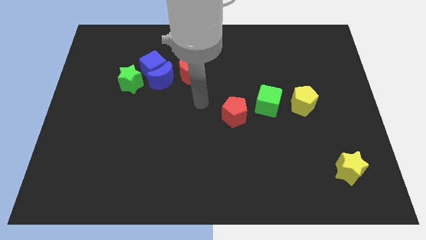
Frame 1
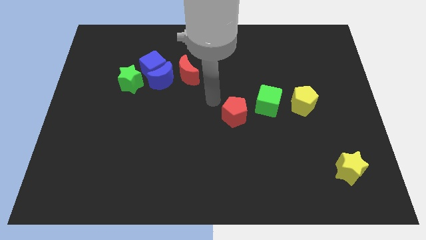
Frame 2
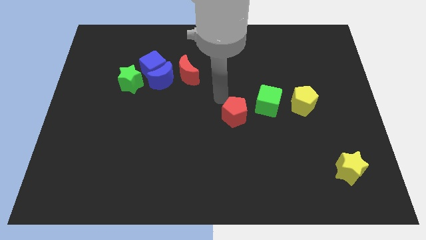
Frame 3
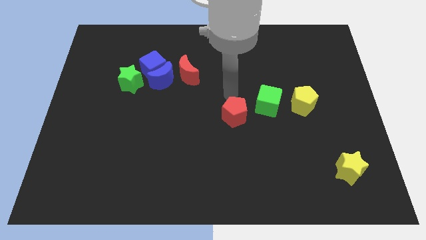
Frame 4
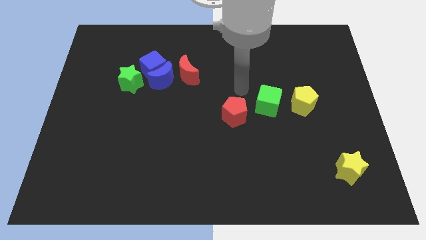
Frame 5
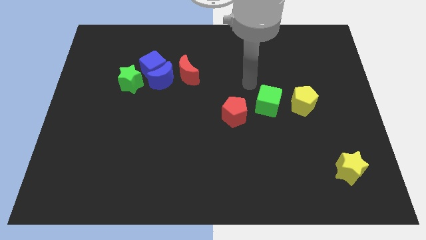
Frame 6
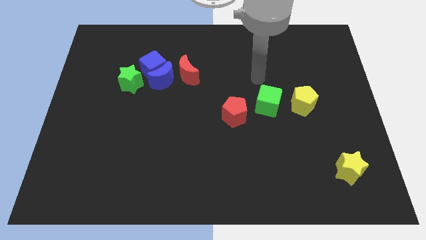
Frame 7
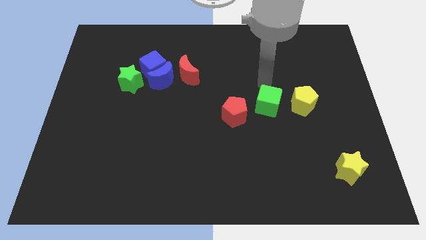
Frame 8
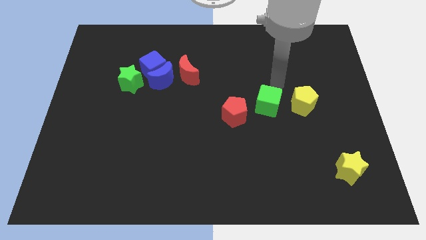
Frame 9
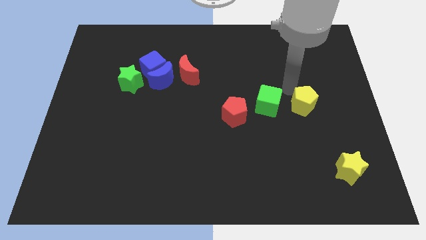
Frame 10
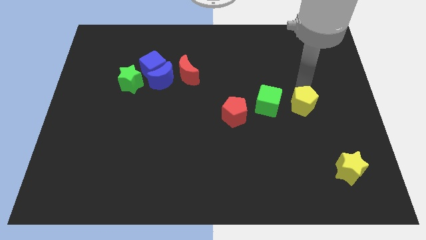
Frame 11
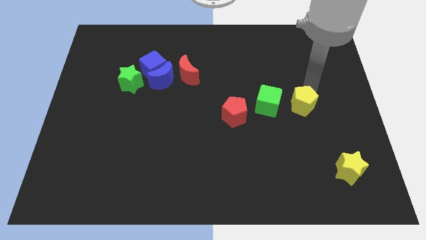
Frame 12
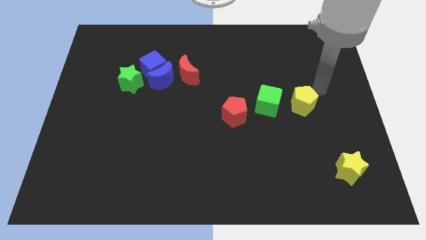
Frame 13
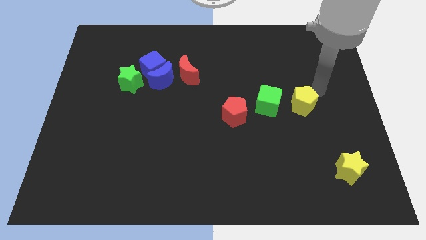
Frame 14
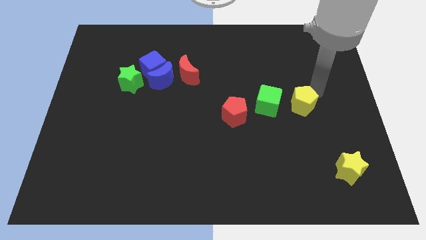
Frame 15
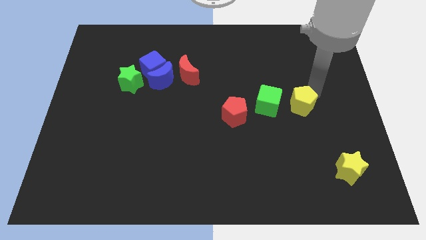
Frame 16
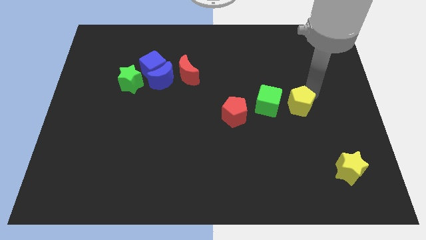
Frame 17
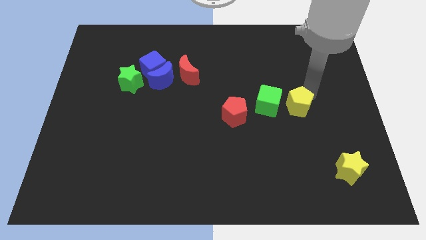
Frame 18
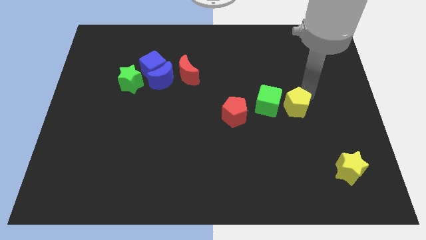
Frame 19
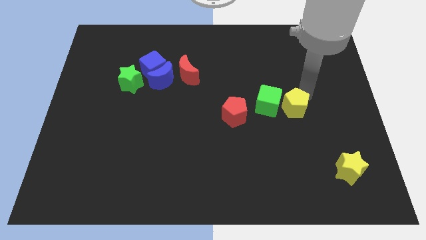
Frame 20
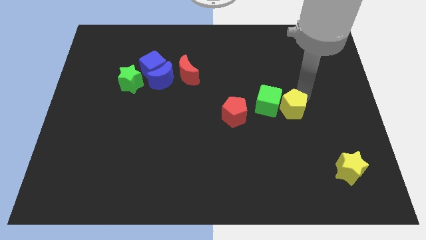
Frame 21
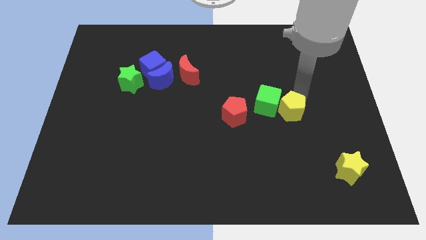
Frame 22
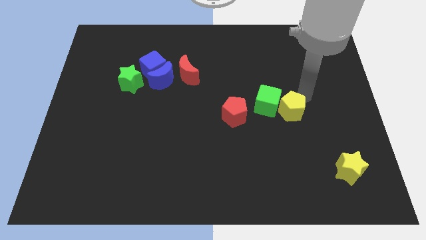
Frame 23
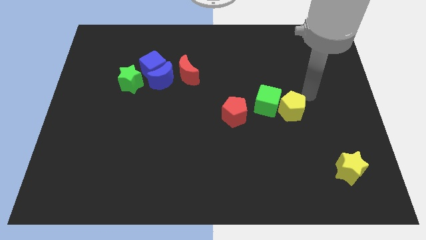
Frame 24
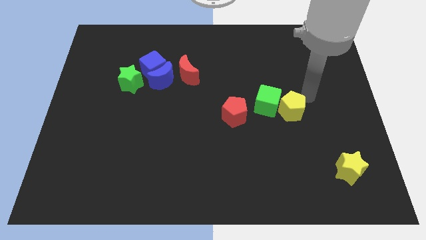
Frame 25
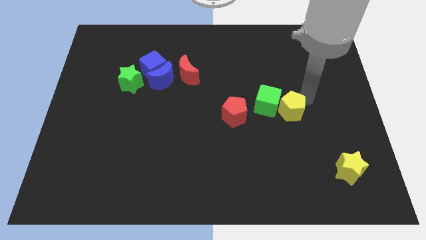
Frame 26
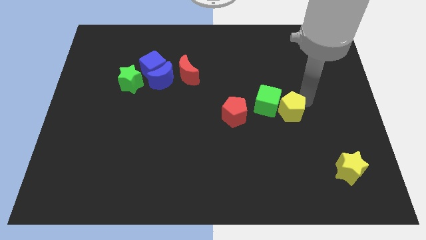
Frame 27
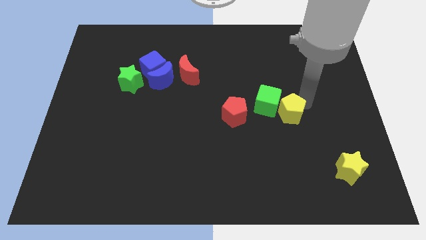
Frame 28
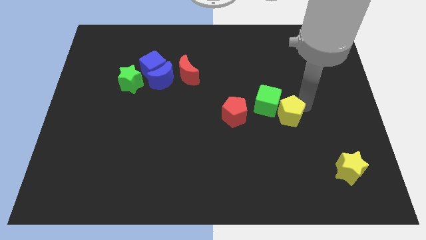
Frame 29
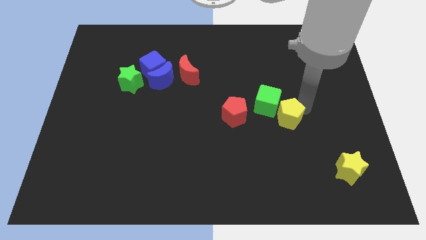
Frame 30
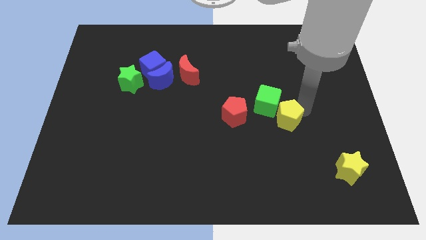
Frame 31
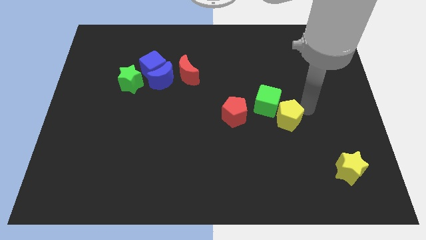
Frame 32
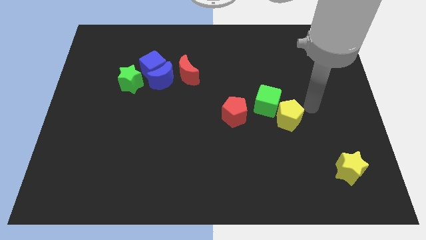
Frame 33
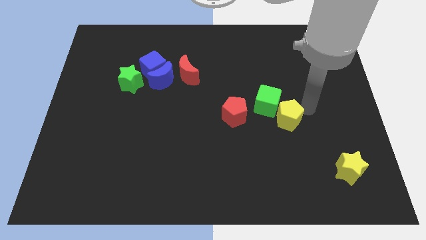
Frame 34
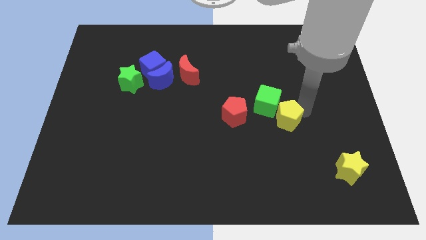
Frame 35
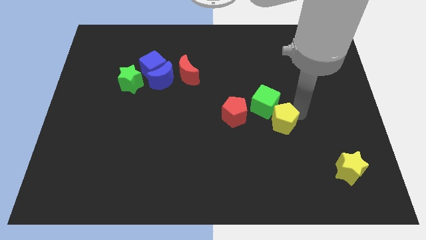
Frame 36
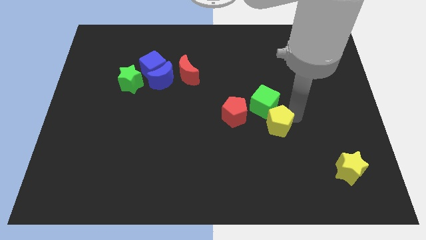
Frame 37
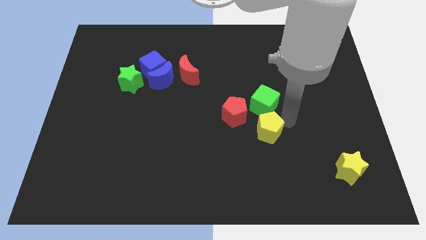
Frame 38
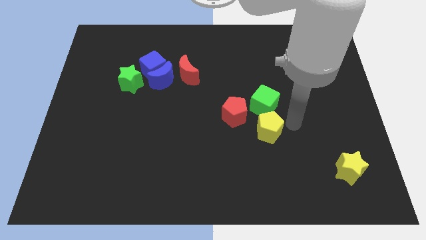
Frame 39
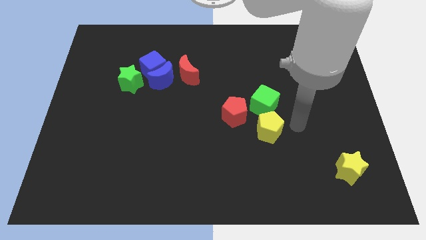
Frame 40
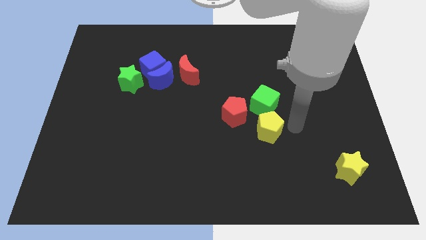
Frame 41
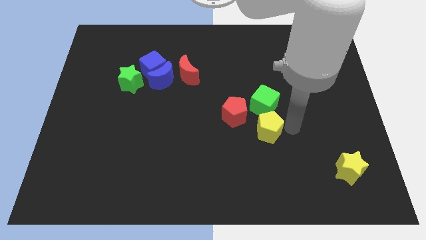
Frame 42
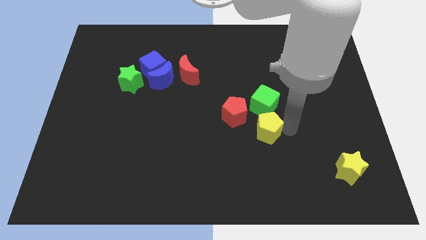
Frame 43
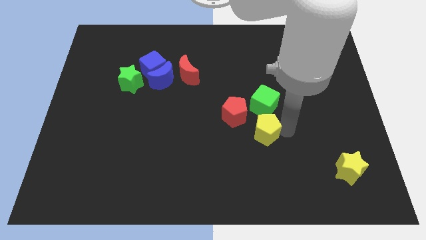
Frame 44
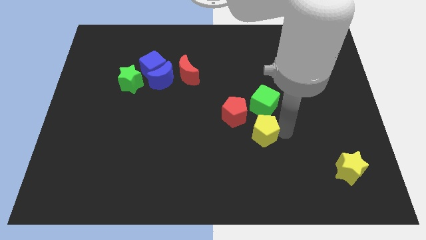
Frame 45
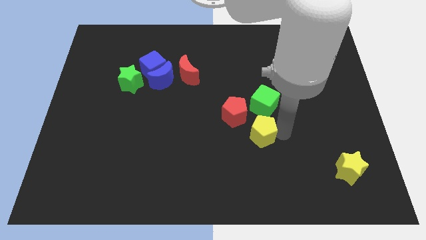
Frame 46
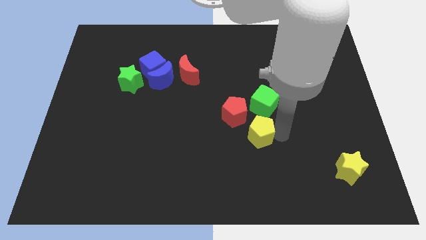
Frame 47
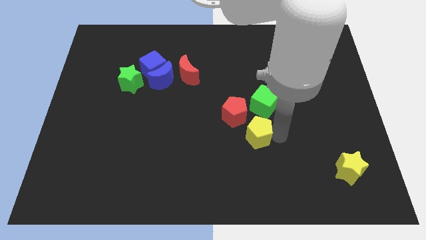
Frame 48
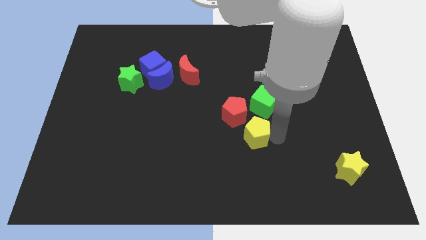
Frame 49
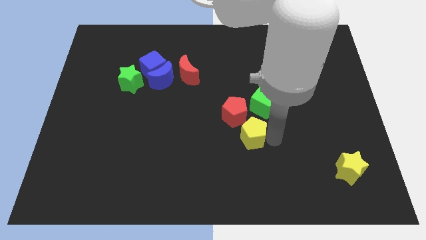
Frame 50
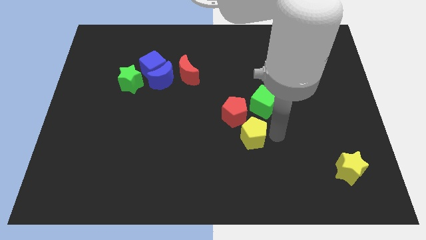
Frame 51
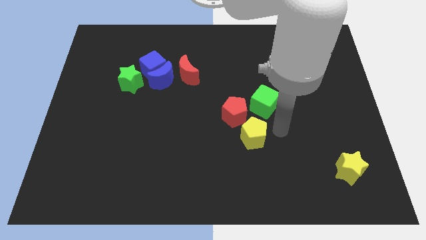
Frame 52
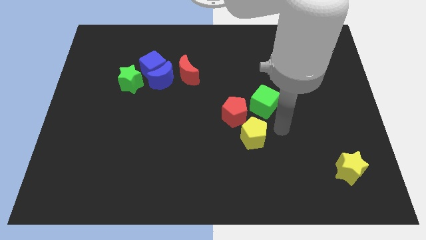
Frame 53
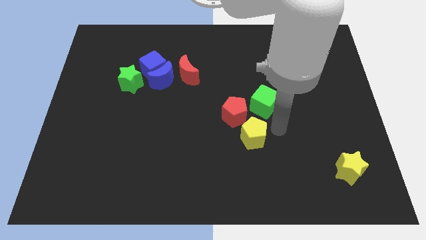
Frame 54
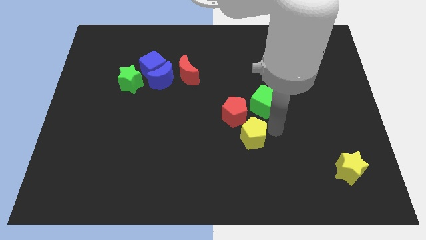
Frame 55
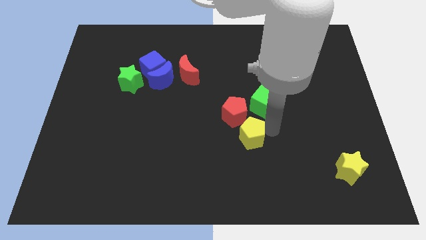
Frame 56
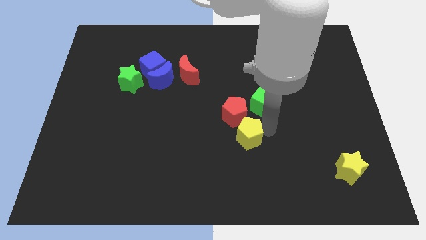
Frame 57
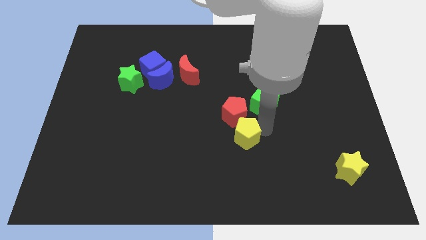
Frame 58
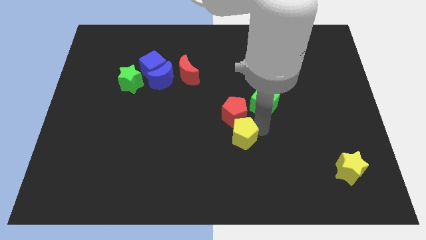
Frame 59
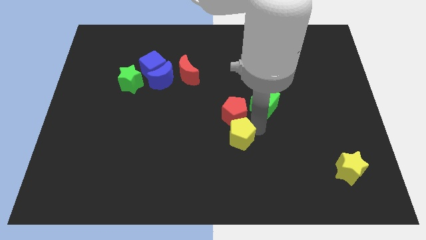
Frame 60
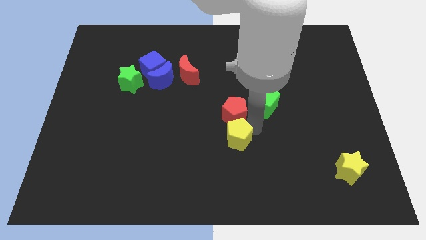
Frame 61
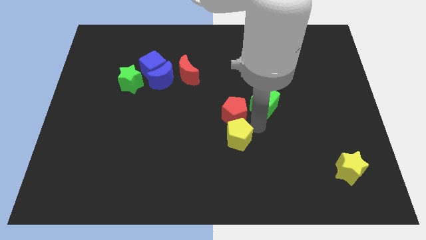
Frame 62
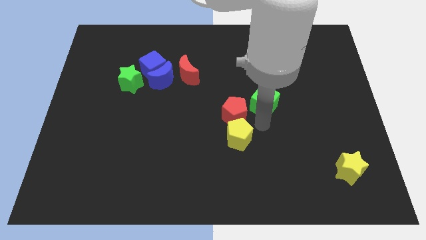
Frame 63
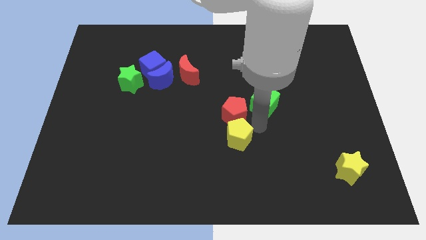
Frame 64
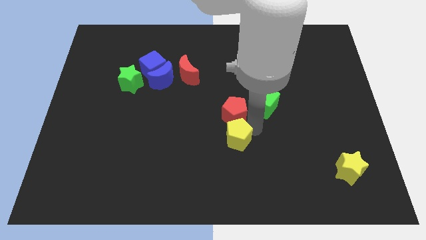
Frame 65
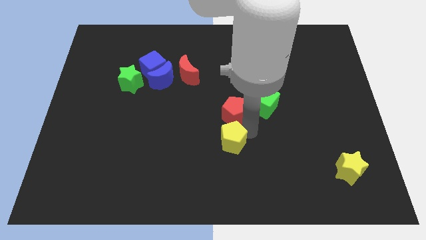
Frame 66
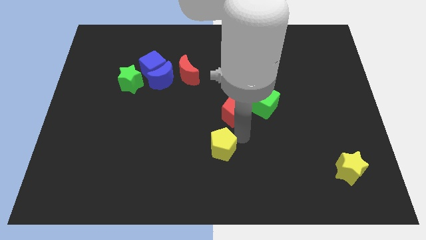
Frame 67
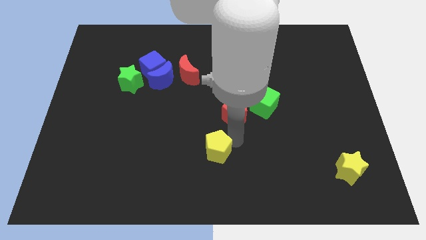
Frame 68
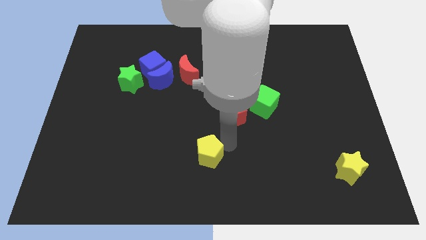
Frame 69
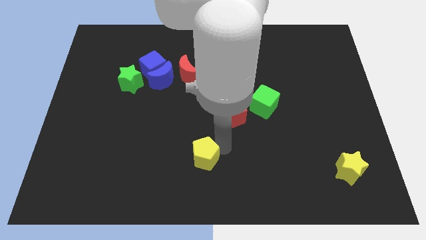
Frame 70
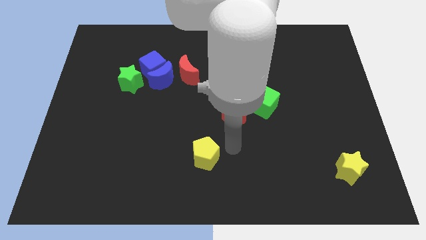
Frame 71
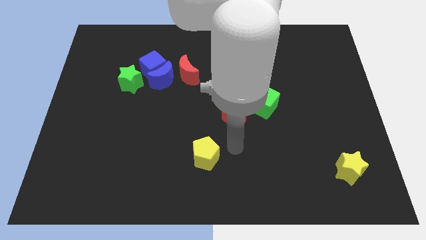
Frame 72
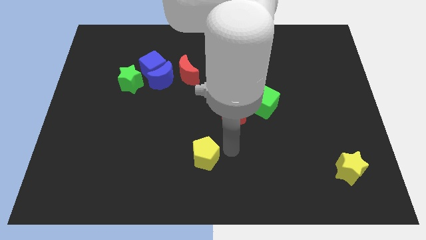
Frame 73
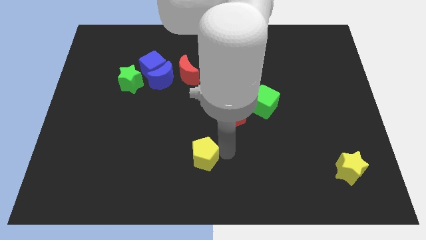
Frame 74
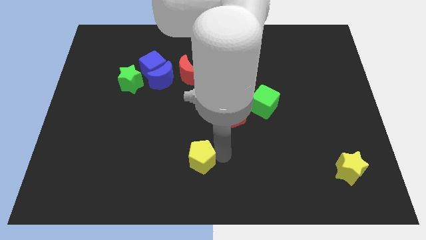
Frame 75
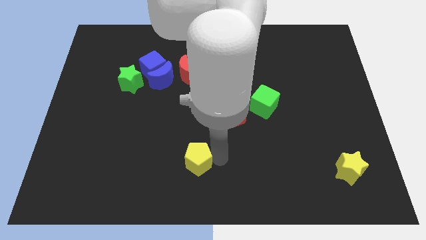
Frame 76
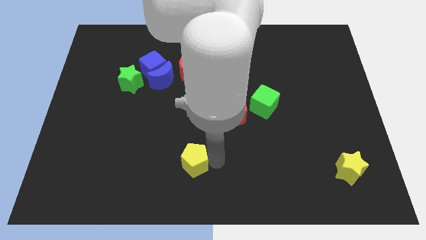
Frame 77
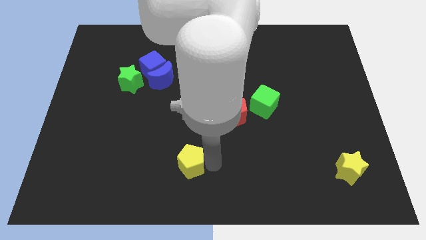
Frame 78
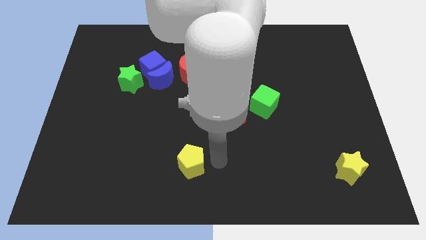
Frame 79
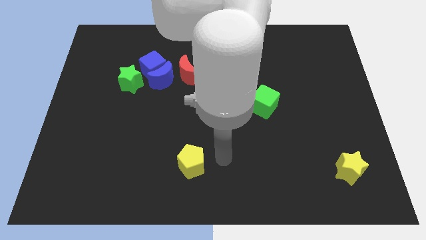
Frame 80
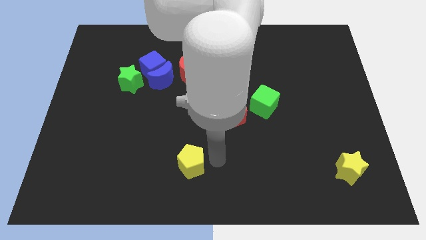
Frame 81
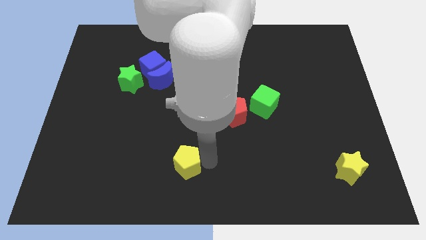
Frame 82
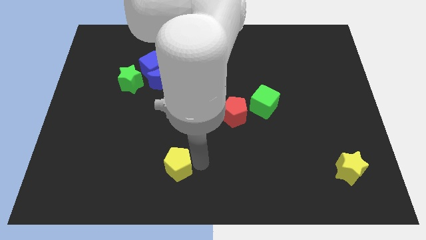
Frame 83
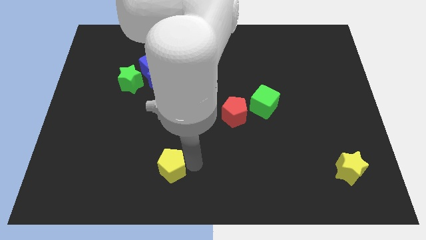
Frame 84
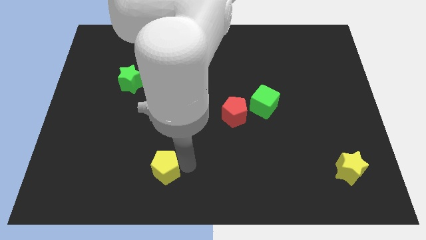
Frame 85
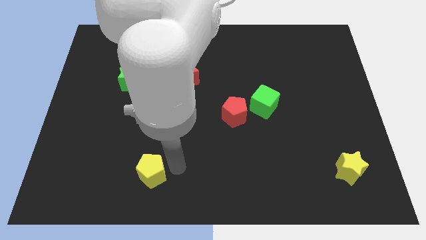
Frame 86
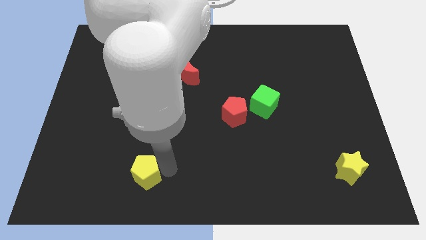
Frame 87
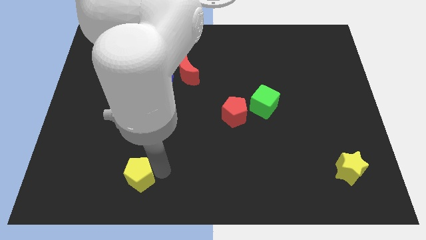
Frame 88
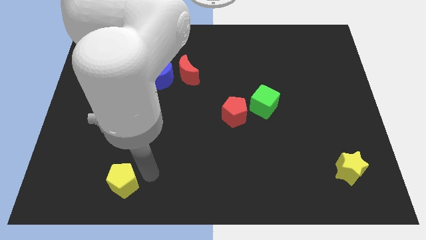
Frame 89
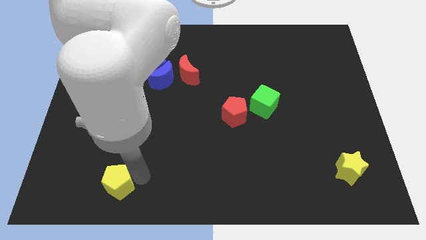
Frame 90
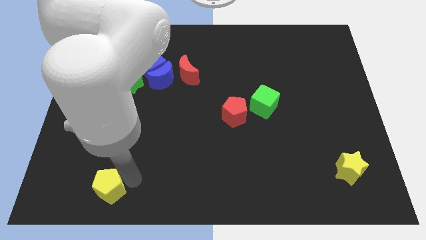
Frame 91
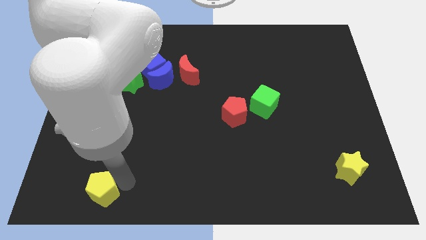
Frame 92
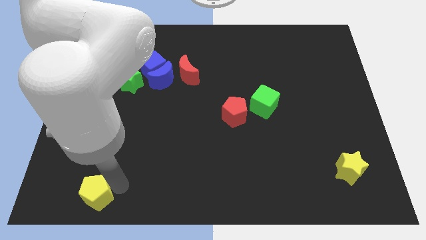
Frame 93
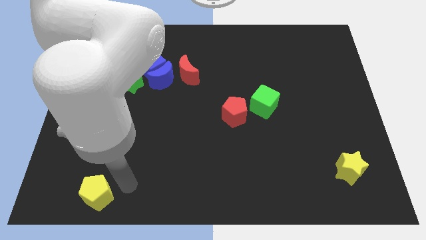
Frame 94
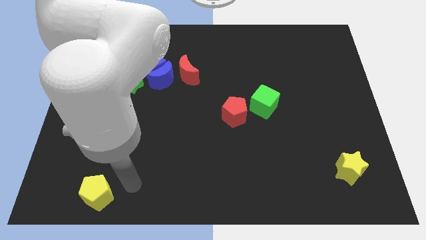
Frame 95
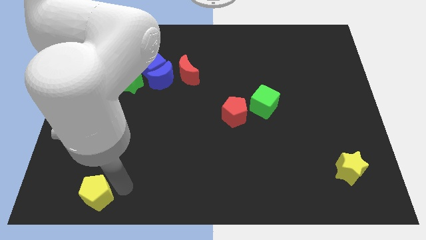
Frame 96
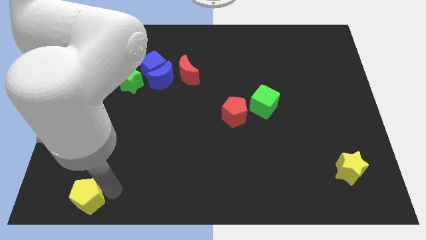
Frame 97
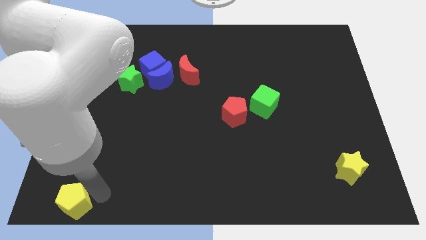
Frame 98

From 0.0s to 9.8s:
push the yellow pentagon to the bottom left
